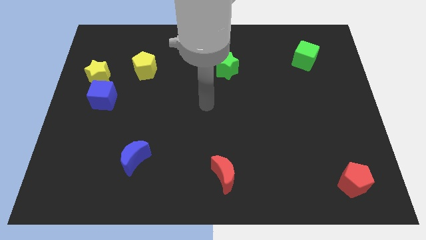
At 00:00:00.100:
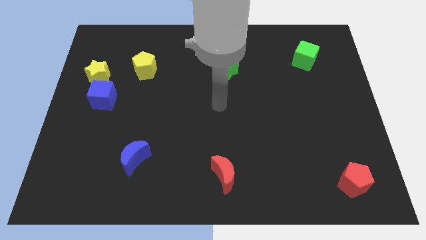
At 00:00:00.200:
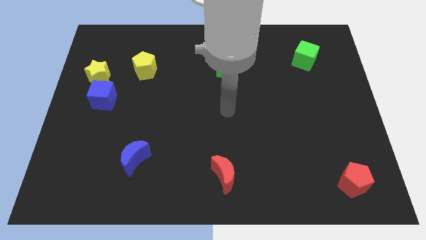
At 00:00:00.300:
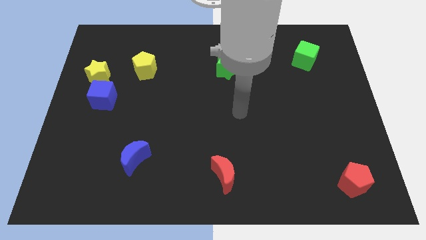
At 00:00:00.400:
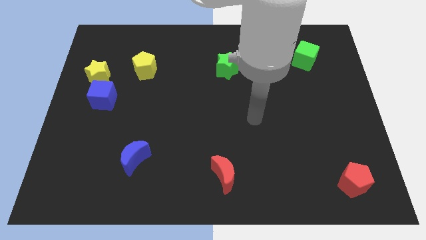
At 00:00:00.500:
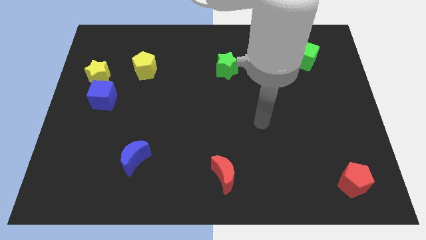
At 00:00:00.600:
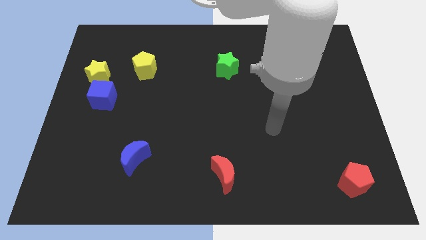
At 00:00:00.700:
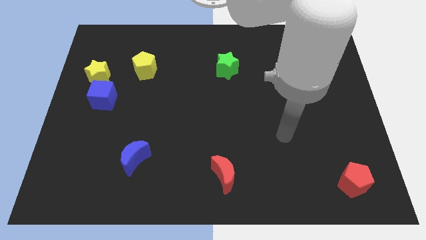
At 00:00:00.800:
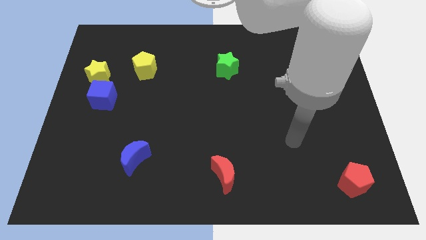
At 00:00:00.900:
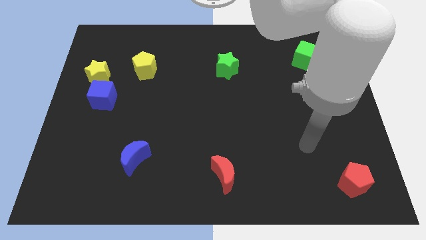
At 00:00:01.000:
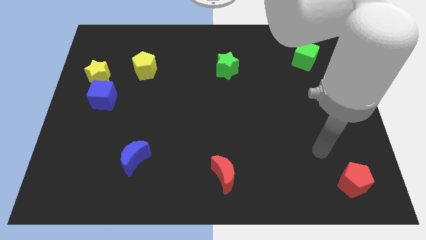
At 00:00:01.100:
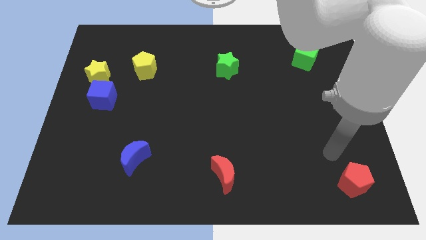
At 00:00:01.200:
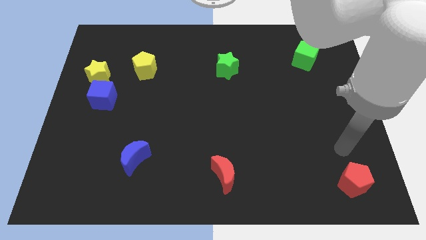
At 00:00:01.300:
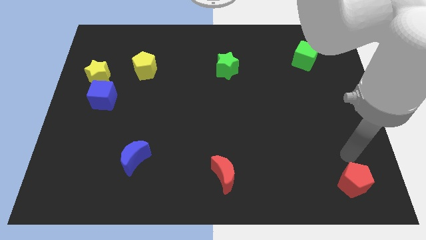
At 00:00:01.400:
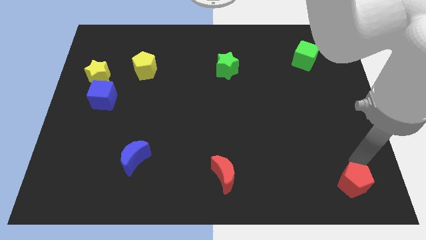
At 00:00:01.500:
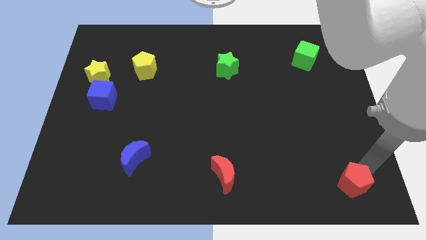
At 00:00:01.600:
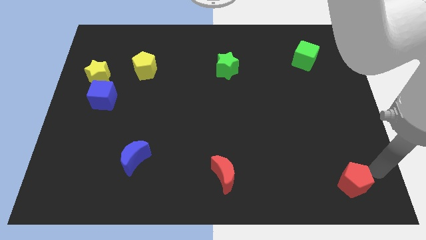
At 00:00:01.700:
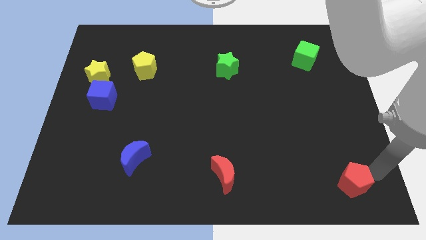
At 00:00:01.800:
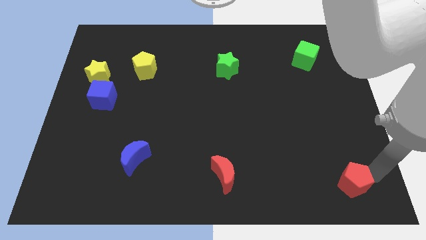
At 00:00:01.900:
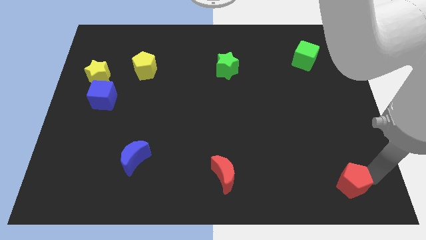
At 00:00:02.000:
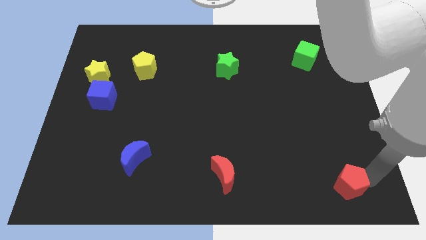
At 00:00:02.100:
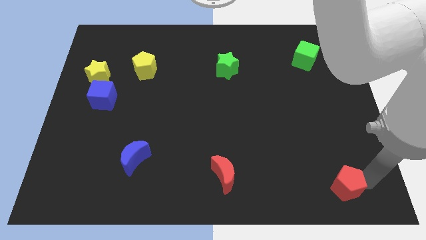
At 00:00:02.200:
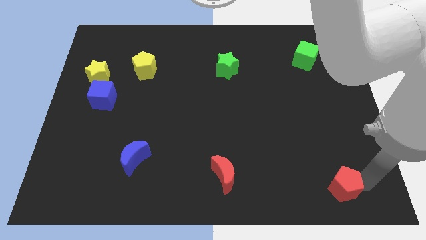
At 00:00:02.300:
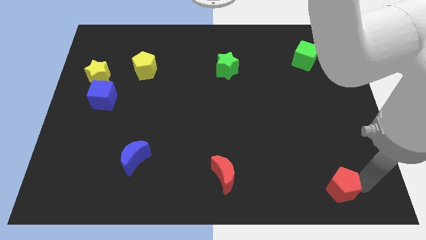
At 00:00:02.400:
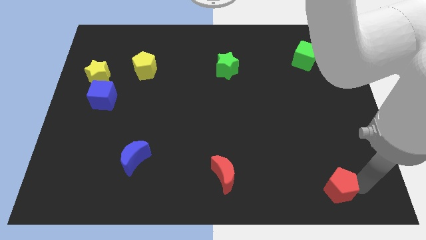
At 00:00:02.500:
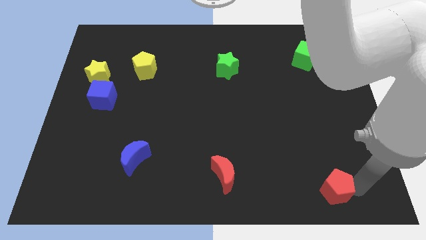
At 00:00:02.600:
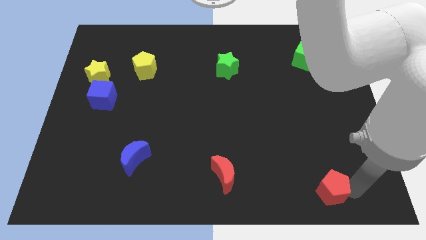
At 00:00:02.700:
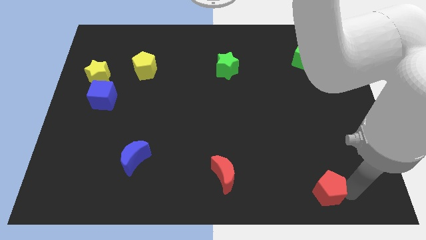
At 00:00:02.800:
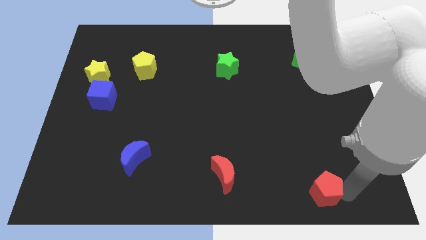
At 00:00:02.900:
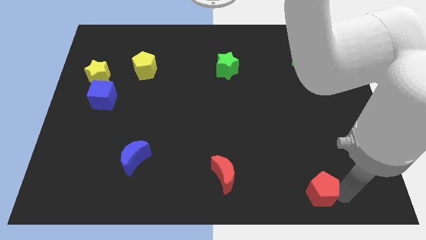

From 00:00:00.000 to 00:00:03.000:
push the red pentagon to the left a little

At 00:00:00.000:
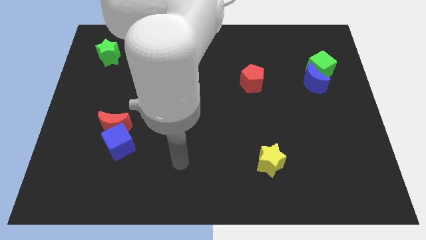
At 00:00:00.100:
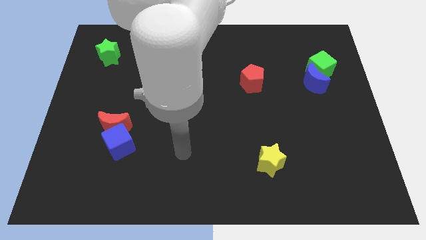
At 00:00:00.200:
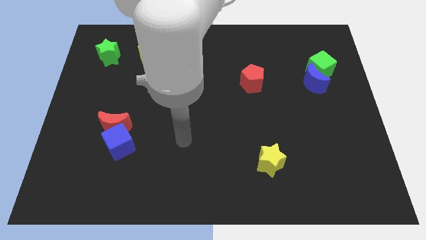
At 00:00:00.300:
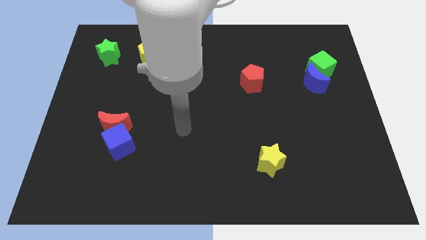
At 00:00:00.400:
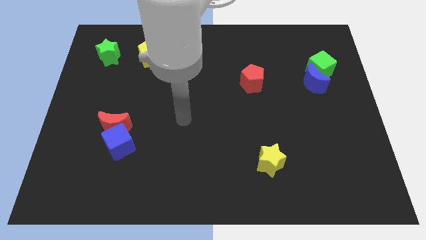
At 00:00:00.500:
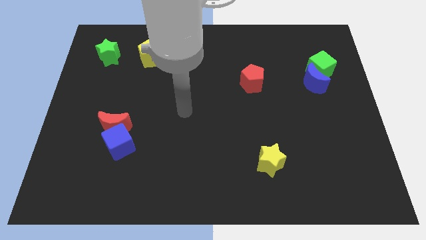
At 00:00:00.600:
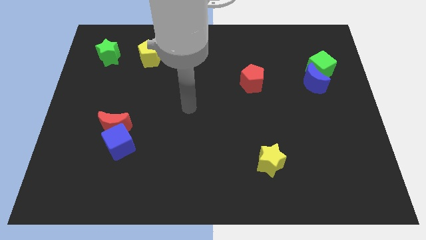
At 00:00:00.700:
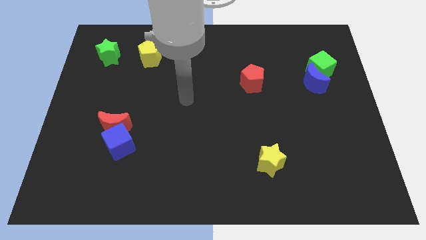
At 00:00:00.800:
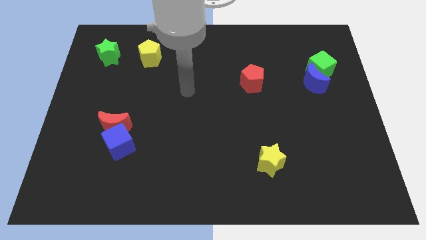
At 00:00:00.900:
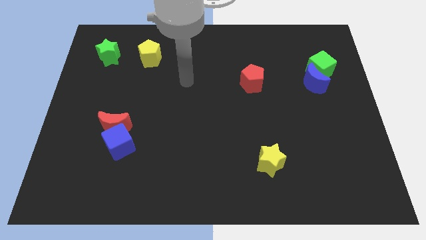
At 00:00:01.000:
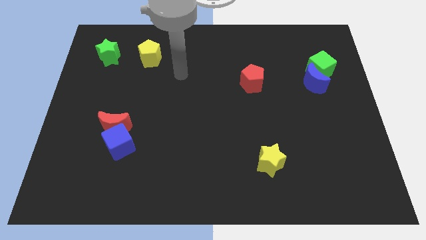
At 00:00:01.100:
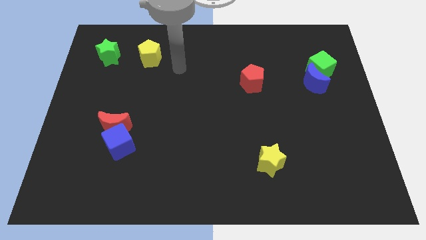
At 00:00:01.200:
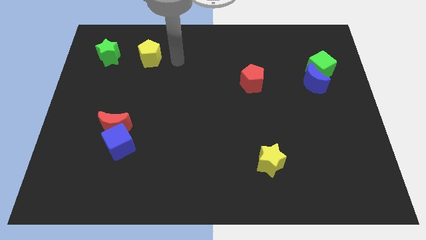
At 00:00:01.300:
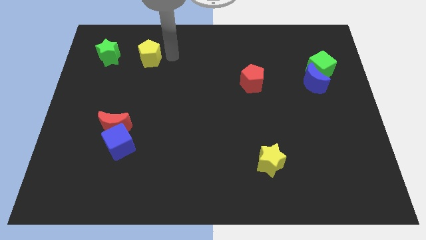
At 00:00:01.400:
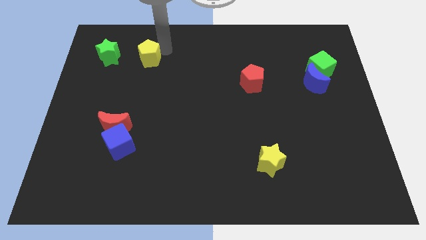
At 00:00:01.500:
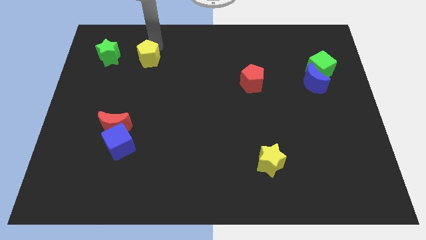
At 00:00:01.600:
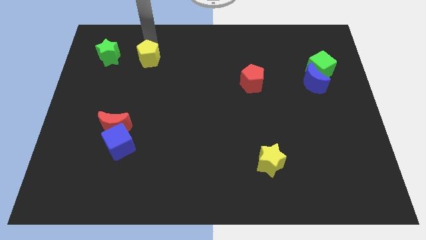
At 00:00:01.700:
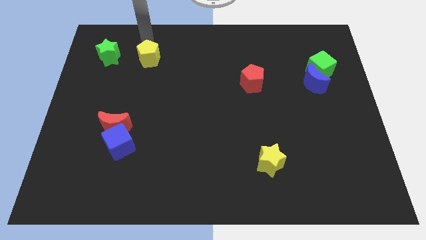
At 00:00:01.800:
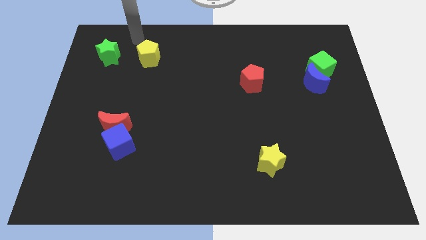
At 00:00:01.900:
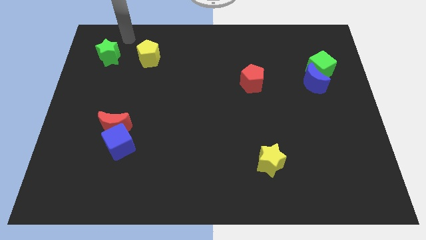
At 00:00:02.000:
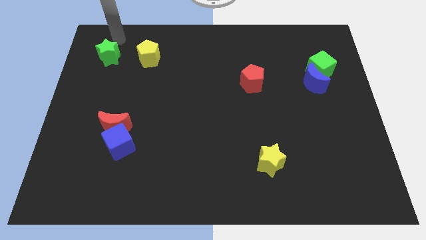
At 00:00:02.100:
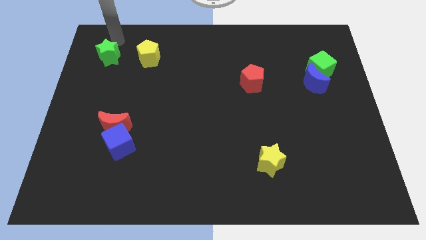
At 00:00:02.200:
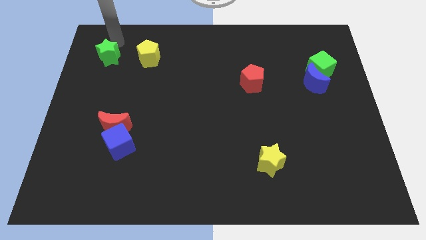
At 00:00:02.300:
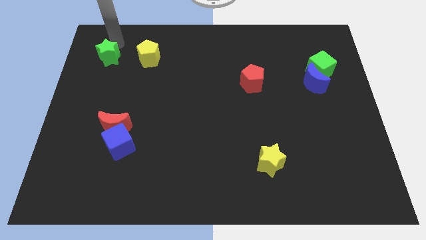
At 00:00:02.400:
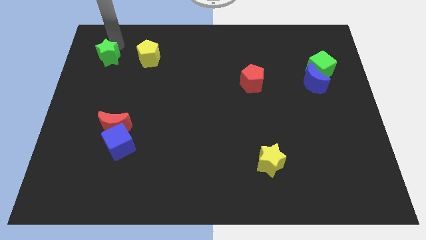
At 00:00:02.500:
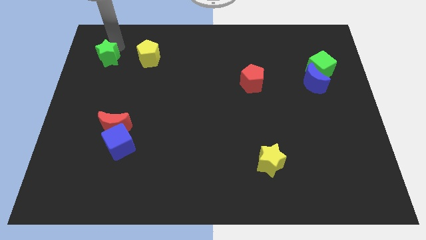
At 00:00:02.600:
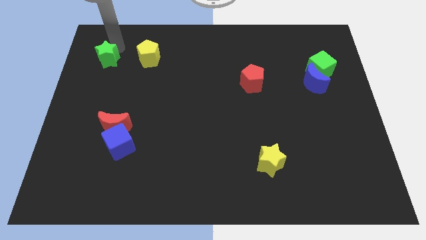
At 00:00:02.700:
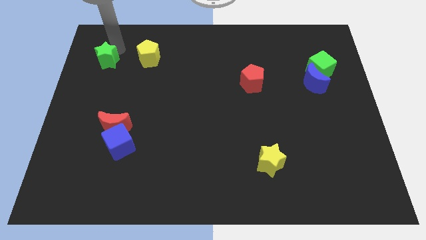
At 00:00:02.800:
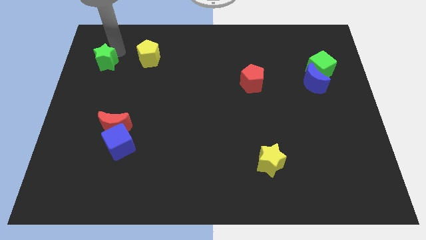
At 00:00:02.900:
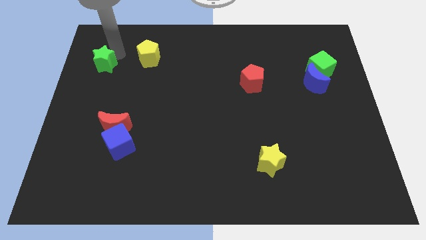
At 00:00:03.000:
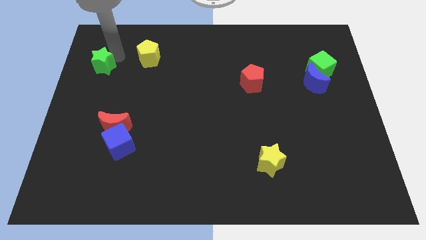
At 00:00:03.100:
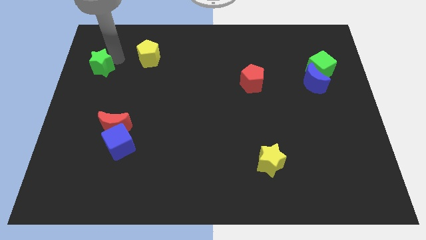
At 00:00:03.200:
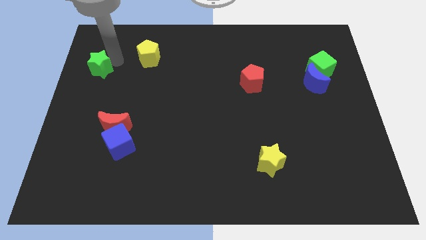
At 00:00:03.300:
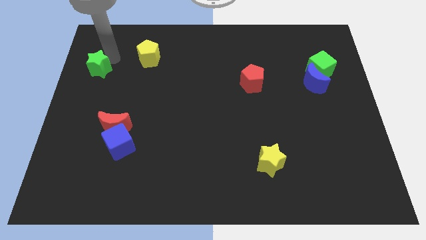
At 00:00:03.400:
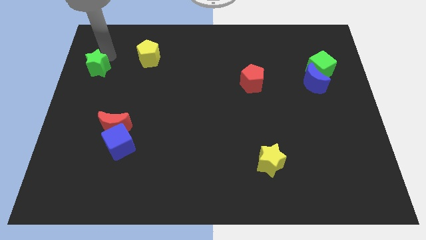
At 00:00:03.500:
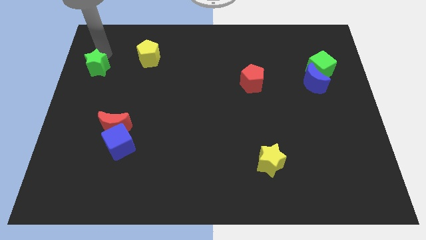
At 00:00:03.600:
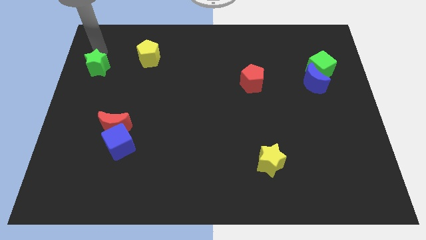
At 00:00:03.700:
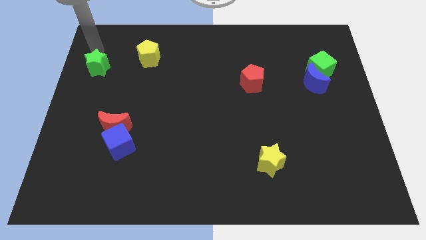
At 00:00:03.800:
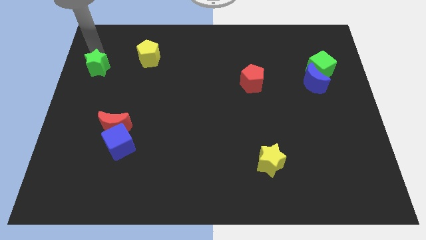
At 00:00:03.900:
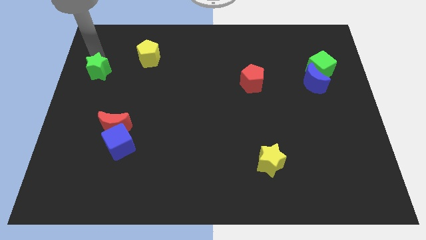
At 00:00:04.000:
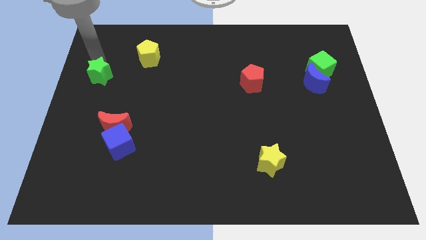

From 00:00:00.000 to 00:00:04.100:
push the green star down a bit

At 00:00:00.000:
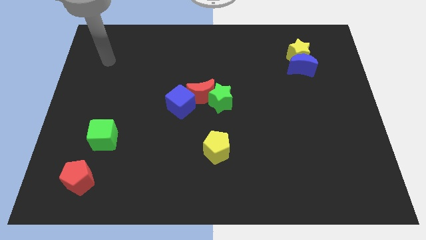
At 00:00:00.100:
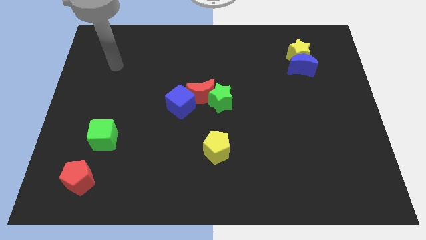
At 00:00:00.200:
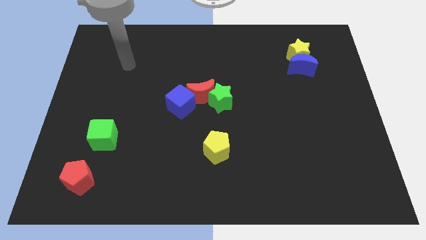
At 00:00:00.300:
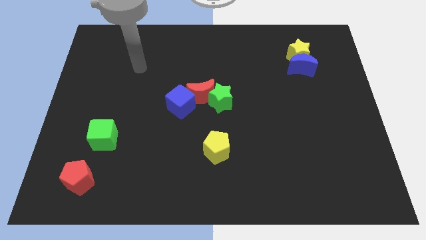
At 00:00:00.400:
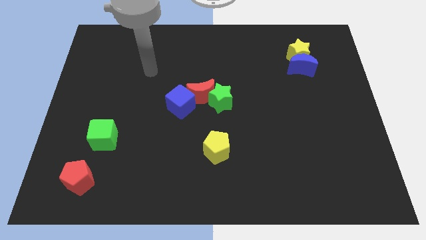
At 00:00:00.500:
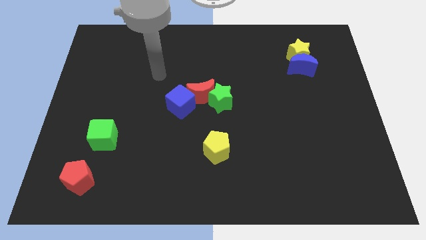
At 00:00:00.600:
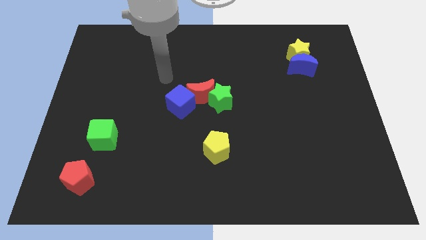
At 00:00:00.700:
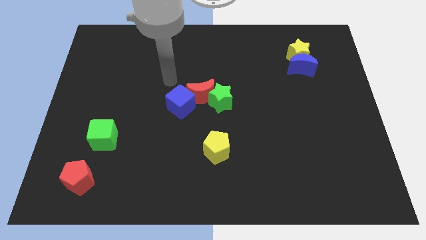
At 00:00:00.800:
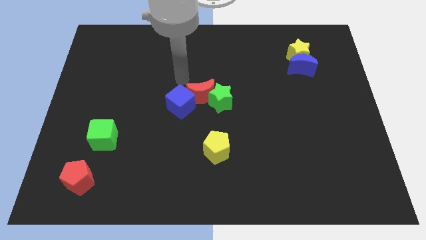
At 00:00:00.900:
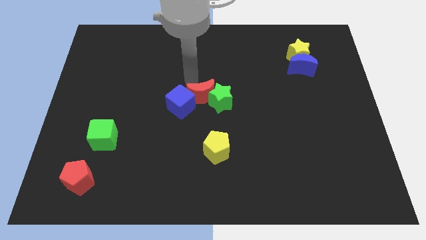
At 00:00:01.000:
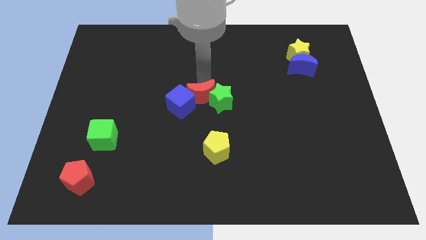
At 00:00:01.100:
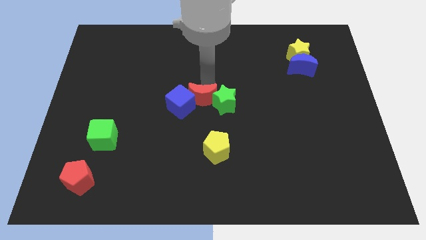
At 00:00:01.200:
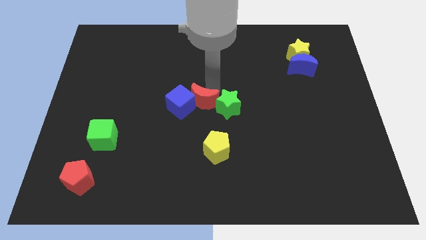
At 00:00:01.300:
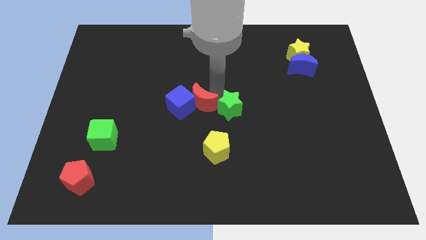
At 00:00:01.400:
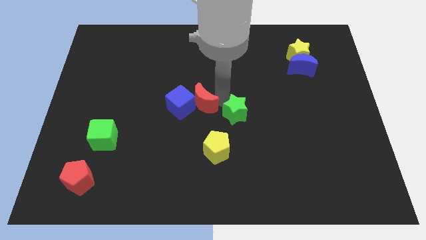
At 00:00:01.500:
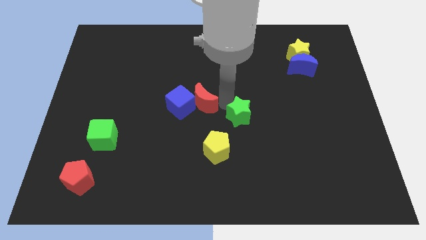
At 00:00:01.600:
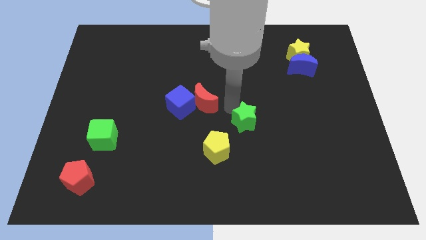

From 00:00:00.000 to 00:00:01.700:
move the green star diagonally downwards and to the right a bit
